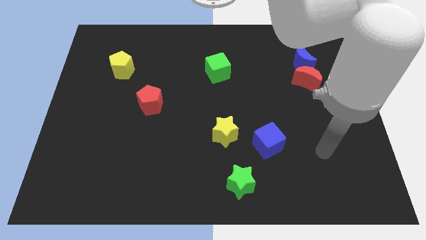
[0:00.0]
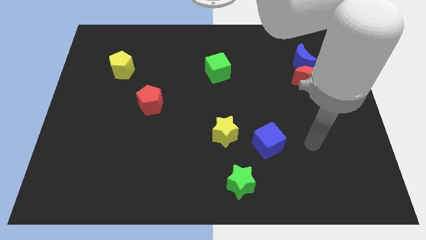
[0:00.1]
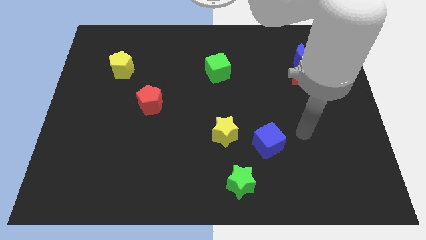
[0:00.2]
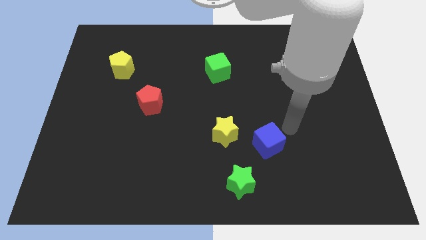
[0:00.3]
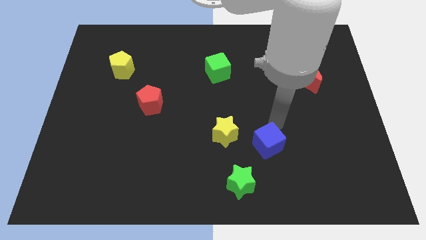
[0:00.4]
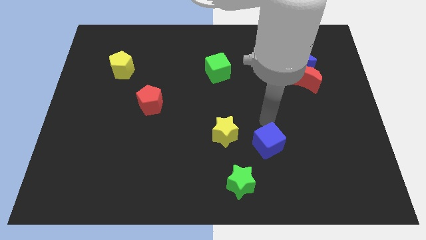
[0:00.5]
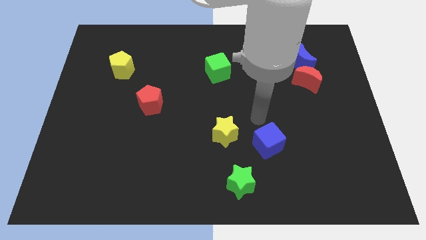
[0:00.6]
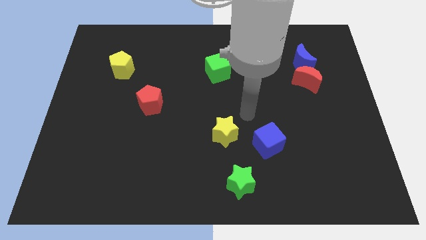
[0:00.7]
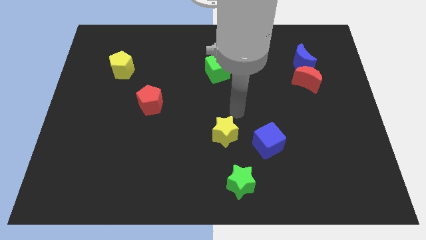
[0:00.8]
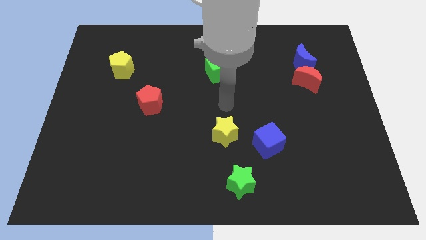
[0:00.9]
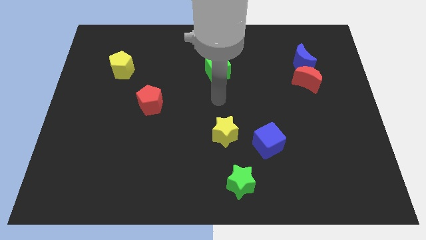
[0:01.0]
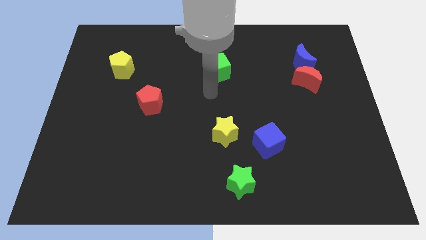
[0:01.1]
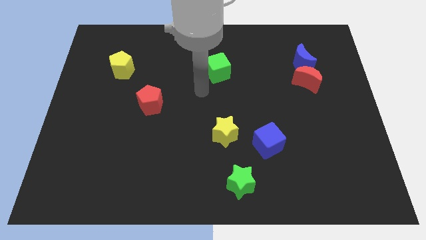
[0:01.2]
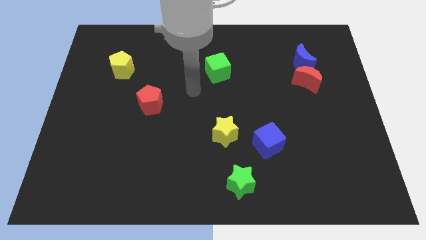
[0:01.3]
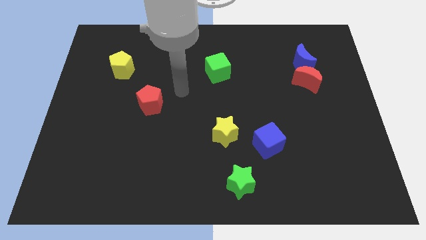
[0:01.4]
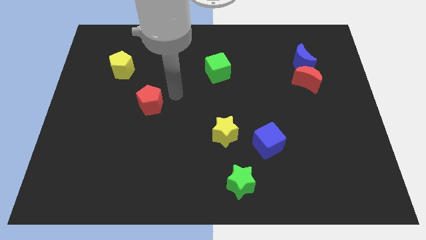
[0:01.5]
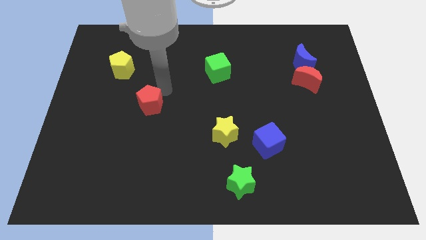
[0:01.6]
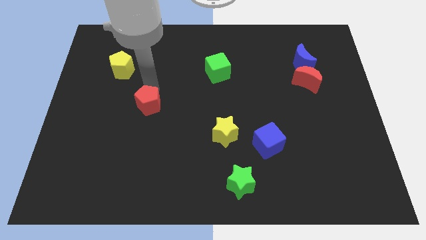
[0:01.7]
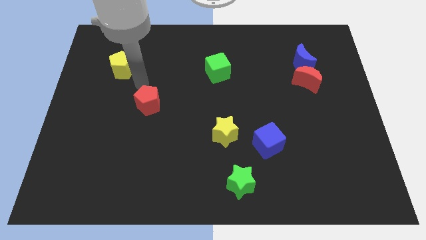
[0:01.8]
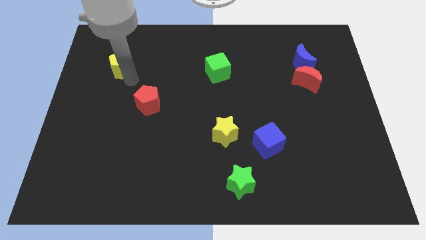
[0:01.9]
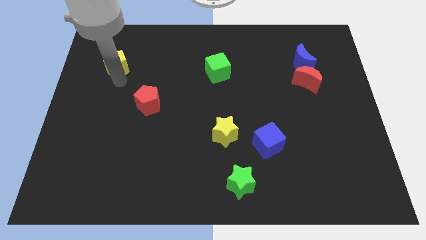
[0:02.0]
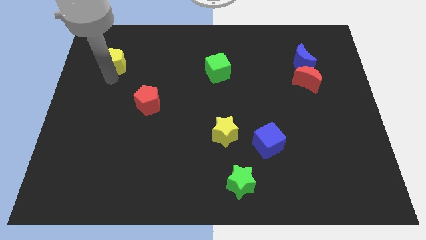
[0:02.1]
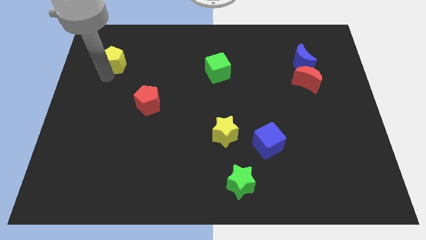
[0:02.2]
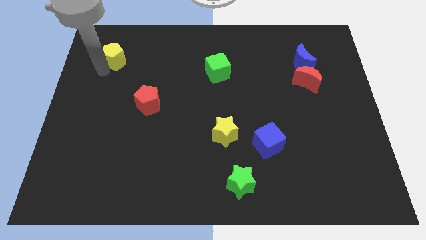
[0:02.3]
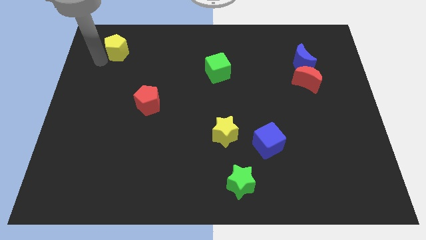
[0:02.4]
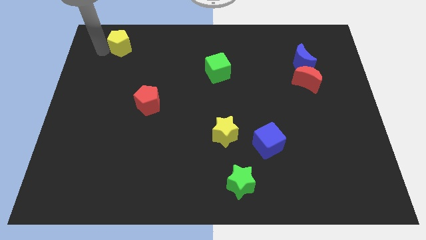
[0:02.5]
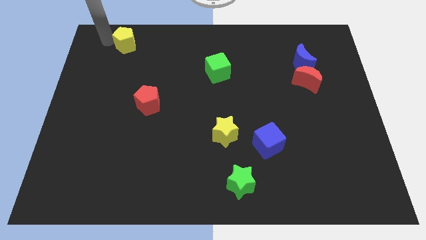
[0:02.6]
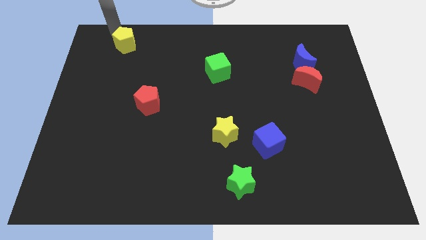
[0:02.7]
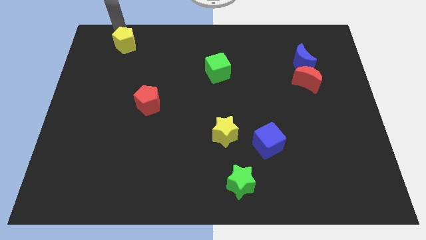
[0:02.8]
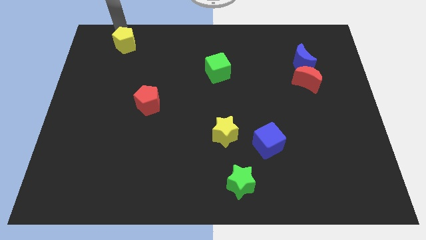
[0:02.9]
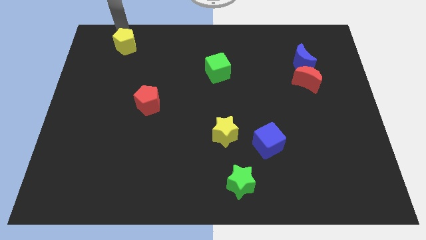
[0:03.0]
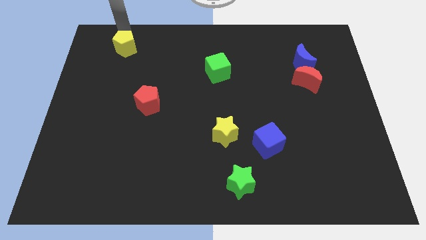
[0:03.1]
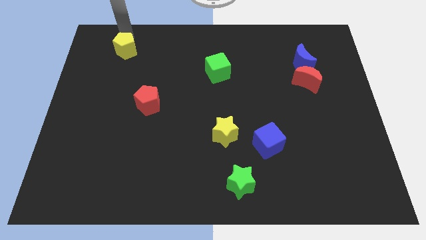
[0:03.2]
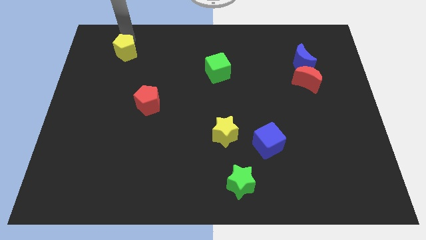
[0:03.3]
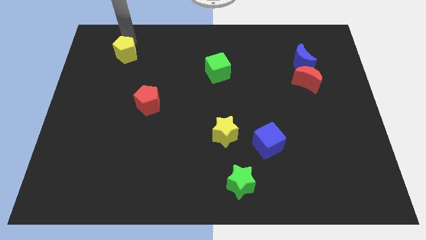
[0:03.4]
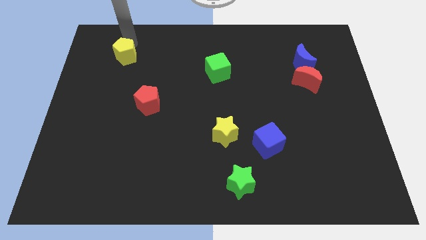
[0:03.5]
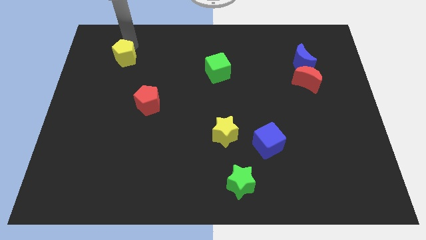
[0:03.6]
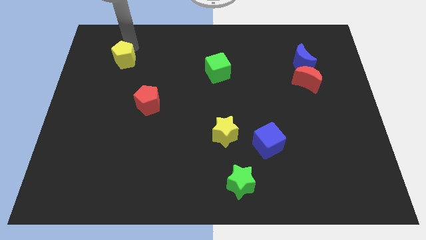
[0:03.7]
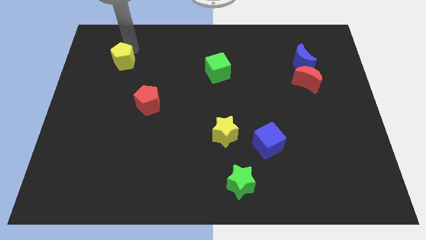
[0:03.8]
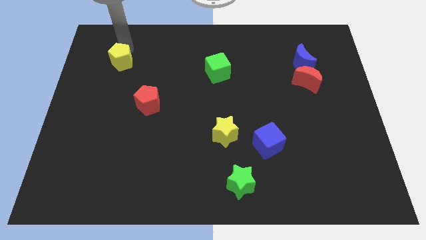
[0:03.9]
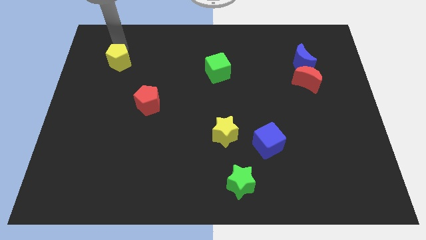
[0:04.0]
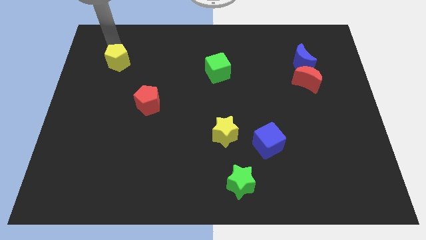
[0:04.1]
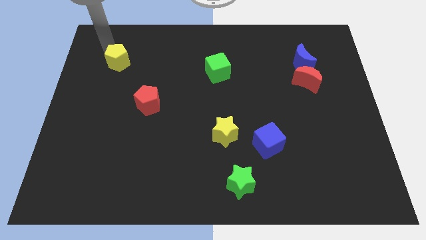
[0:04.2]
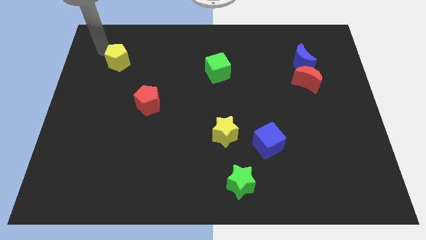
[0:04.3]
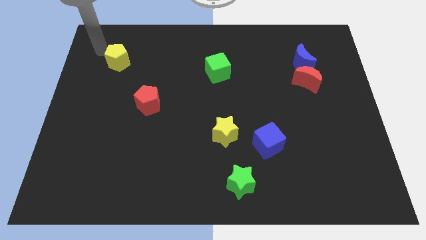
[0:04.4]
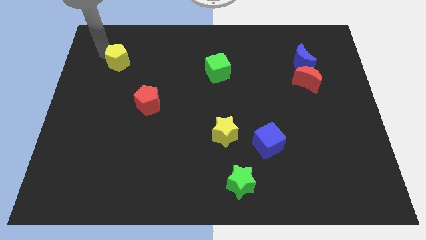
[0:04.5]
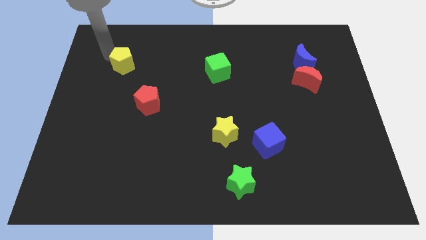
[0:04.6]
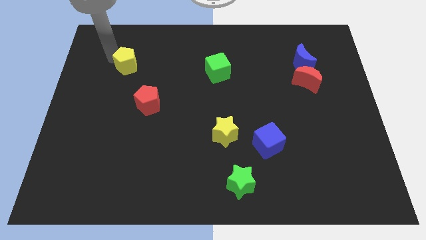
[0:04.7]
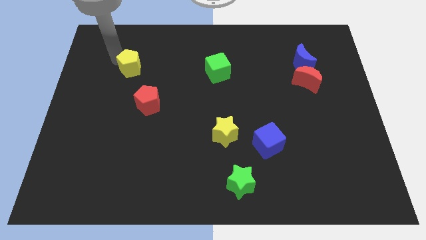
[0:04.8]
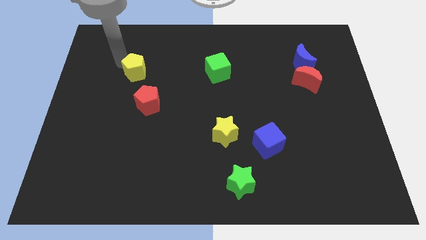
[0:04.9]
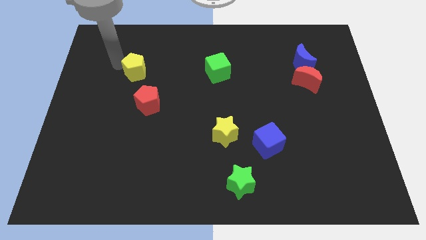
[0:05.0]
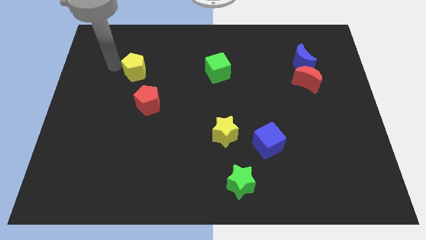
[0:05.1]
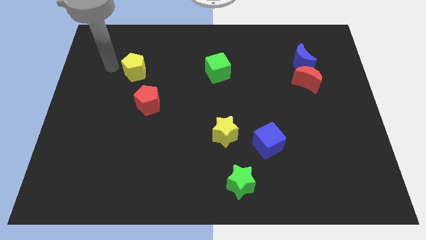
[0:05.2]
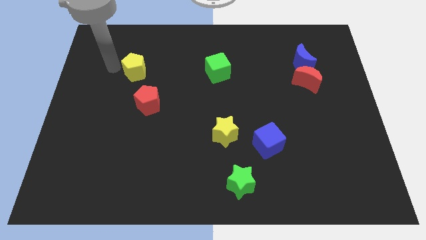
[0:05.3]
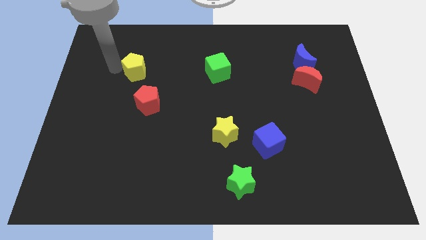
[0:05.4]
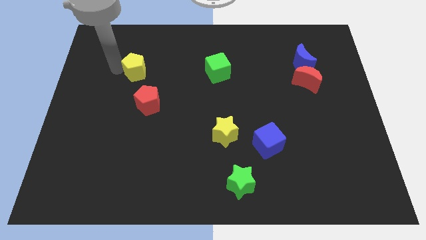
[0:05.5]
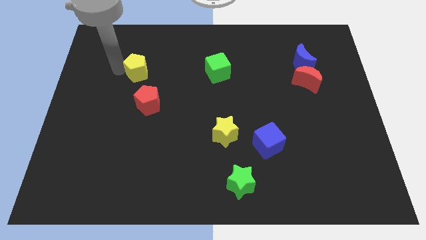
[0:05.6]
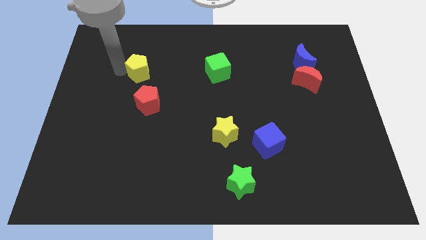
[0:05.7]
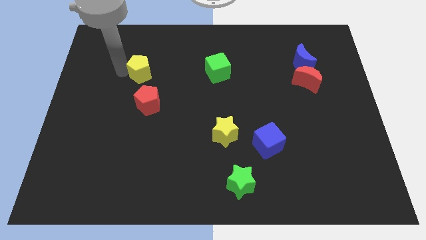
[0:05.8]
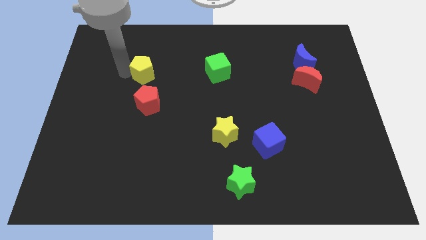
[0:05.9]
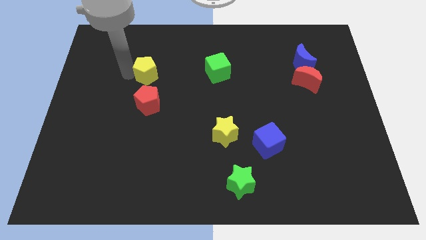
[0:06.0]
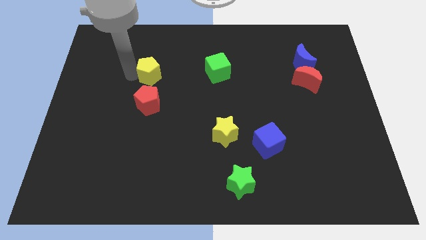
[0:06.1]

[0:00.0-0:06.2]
slide the yellow pentagon right somewhat

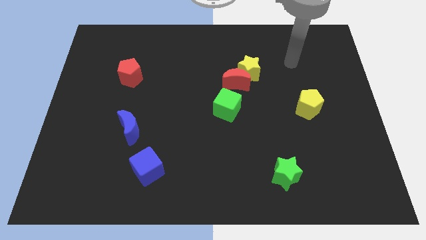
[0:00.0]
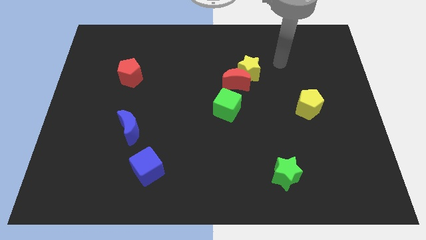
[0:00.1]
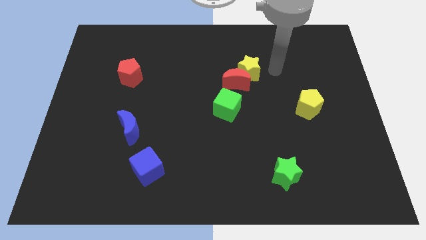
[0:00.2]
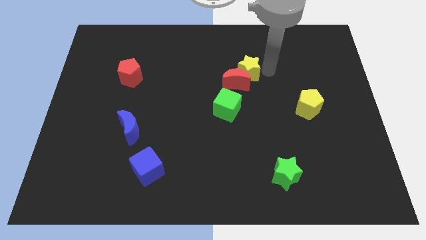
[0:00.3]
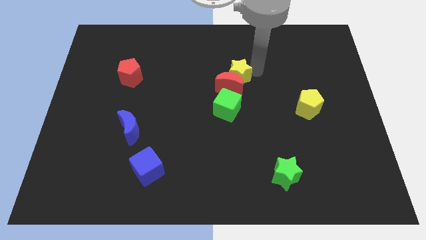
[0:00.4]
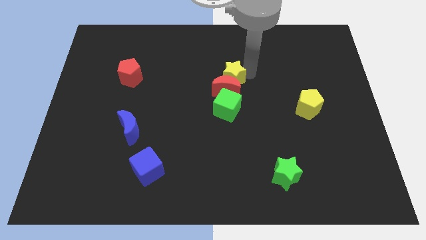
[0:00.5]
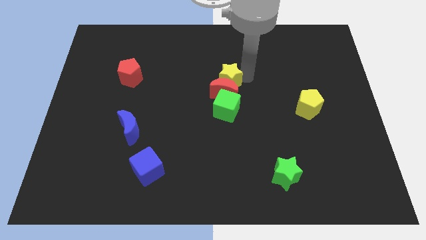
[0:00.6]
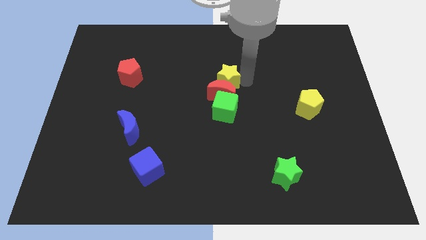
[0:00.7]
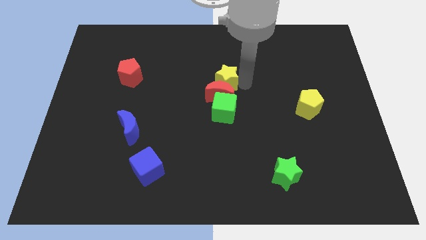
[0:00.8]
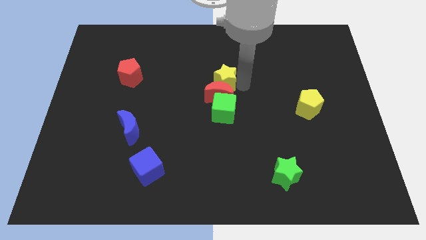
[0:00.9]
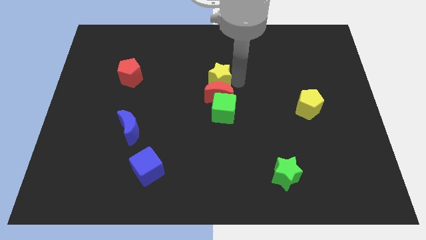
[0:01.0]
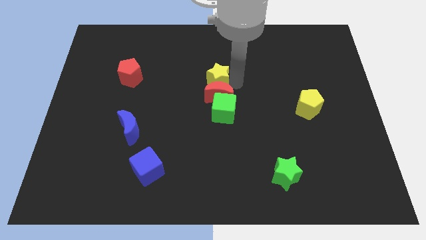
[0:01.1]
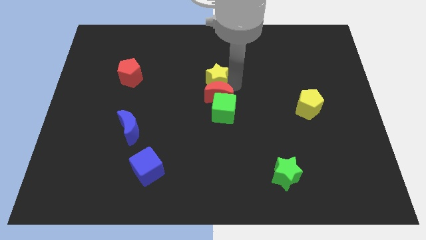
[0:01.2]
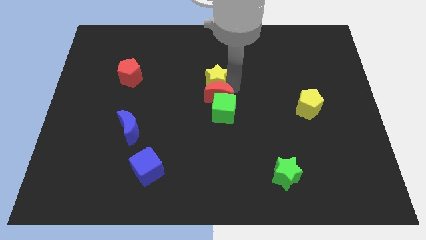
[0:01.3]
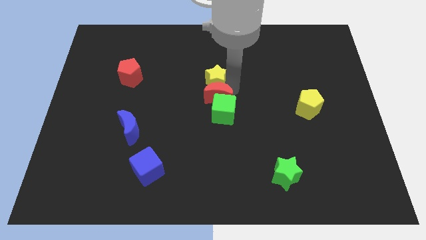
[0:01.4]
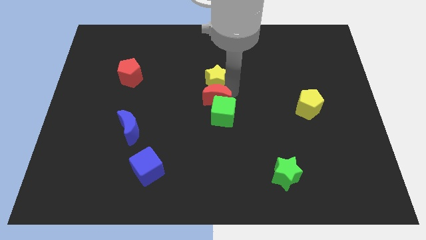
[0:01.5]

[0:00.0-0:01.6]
slightly slide the red moon down and then left

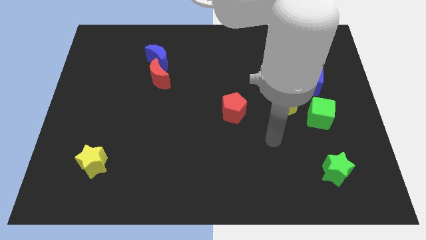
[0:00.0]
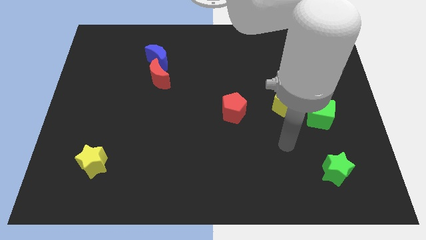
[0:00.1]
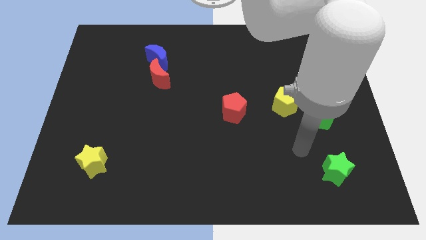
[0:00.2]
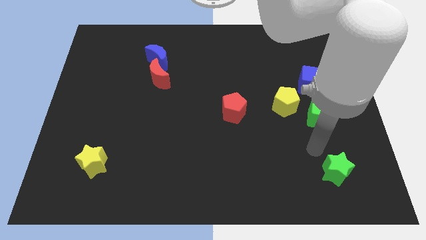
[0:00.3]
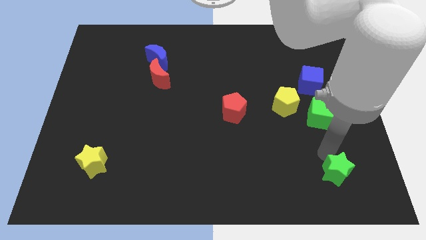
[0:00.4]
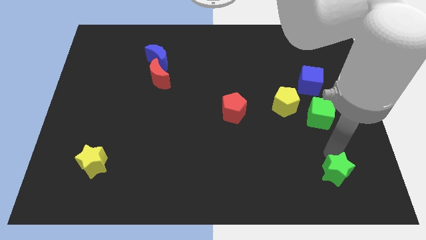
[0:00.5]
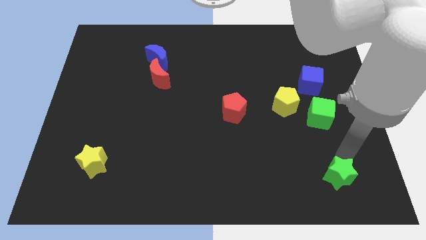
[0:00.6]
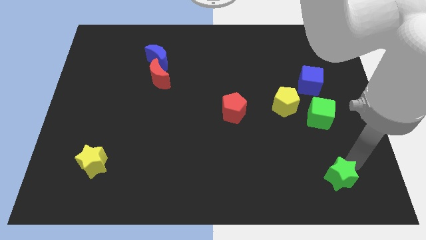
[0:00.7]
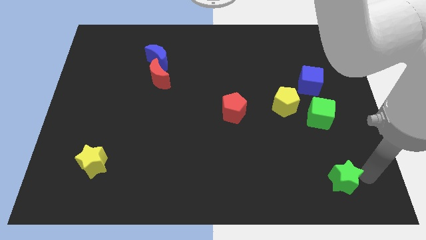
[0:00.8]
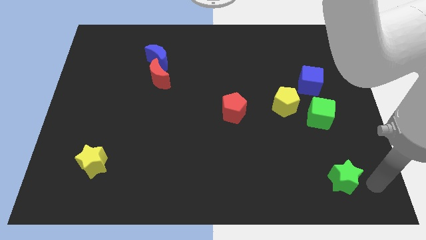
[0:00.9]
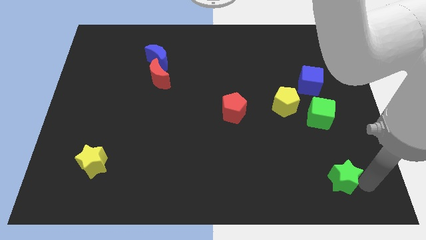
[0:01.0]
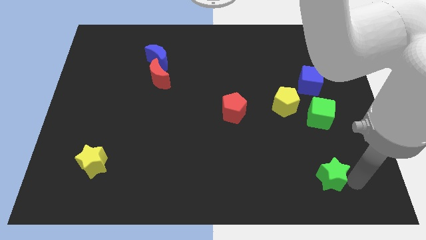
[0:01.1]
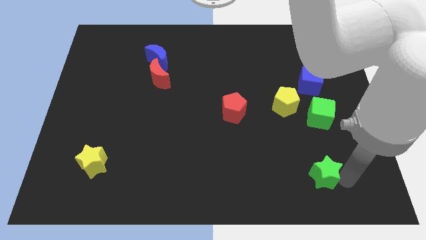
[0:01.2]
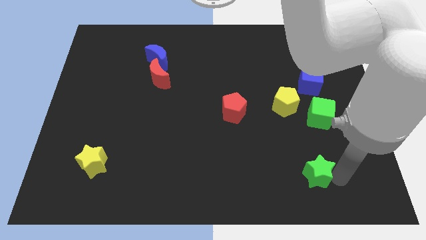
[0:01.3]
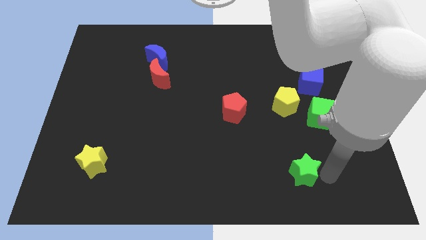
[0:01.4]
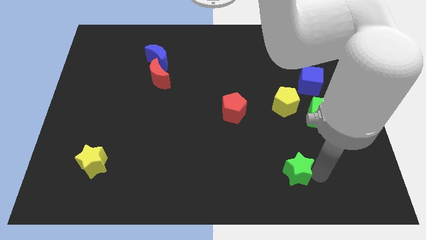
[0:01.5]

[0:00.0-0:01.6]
push the green star left somewhat
